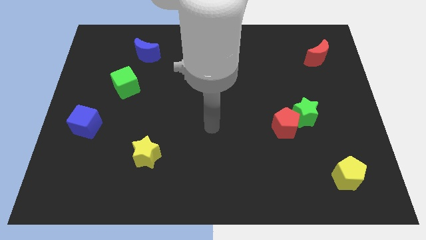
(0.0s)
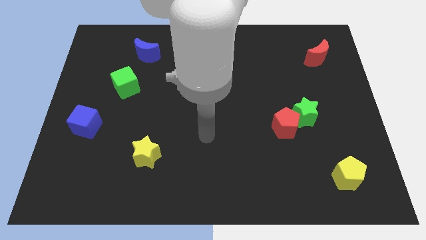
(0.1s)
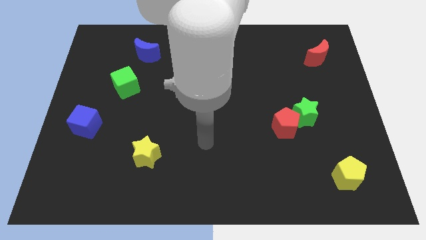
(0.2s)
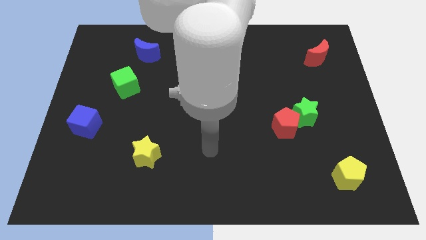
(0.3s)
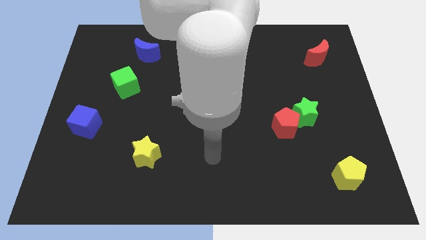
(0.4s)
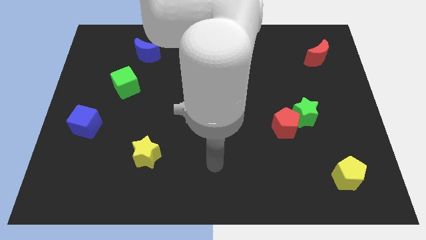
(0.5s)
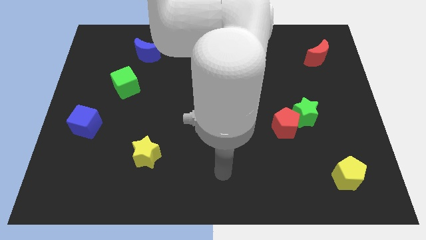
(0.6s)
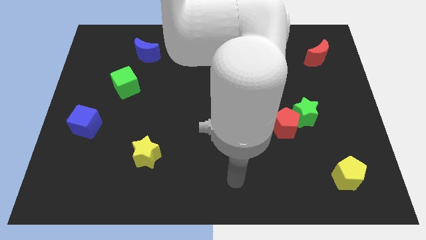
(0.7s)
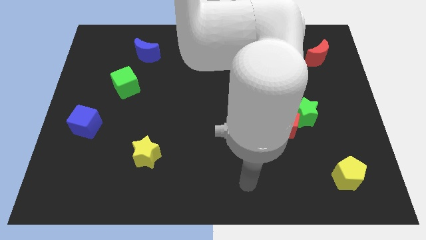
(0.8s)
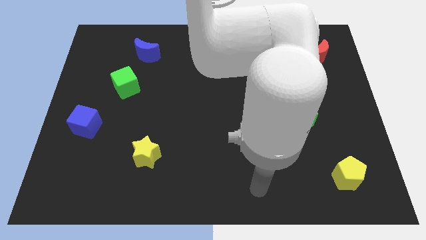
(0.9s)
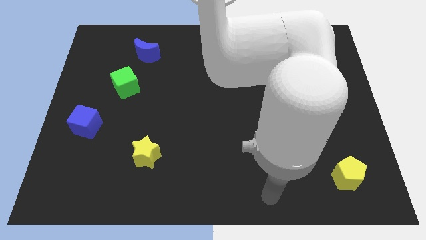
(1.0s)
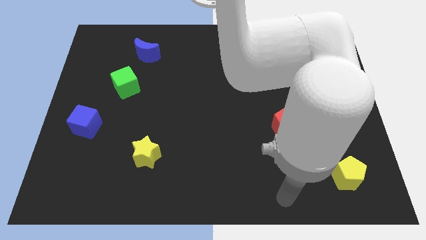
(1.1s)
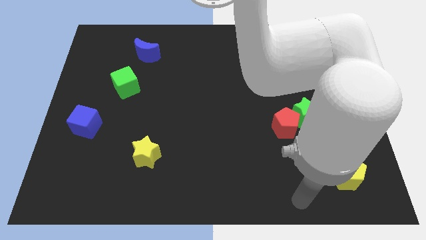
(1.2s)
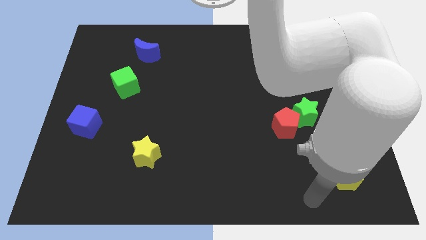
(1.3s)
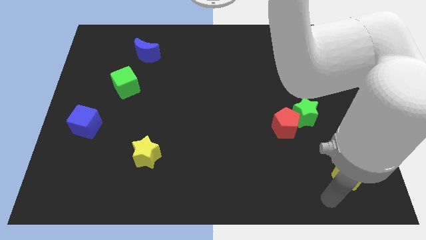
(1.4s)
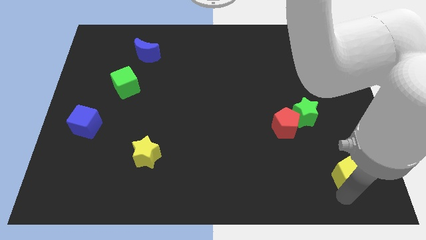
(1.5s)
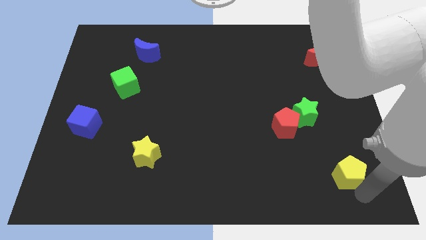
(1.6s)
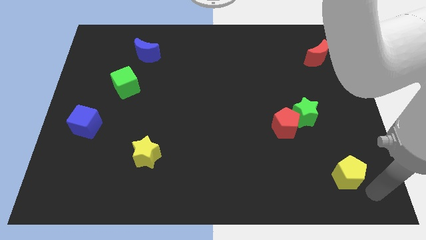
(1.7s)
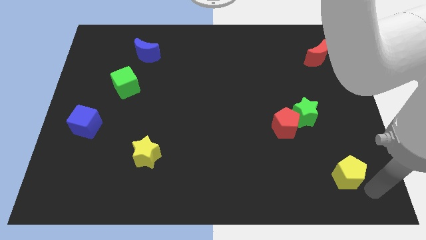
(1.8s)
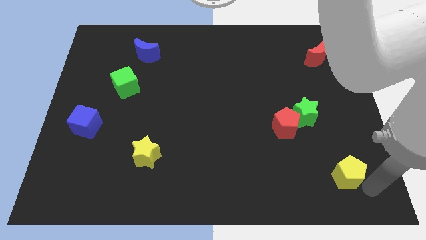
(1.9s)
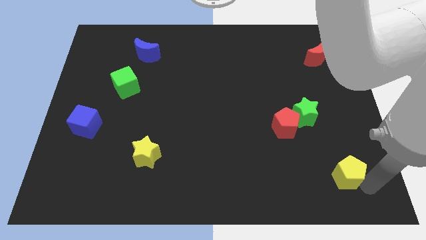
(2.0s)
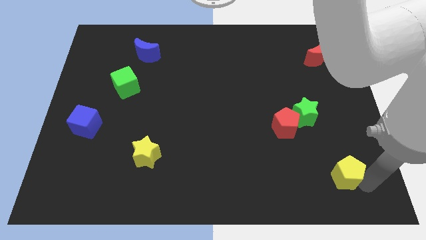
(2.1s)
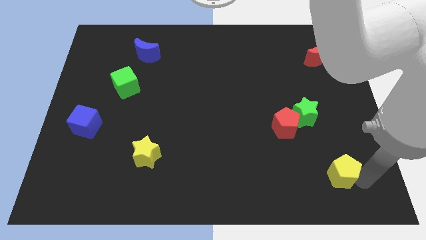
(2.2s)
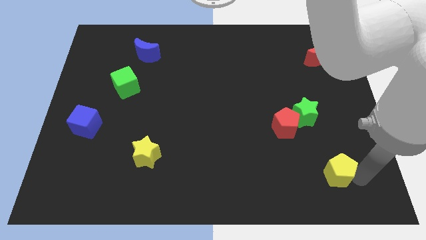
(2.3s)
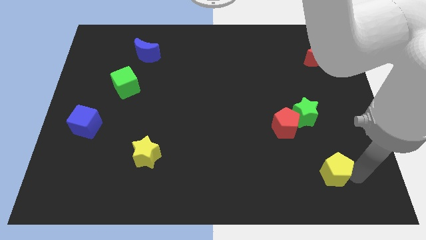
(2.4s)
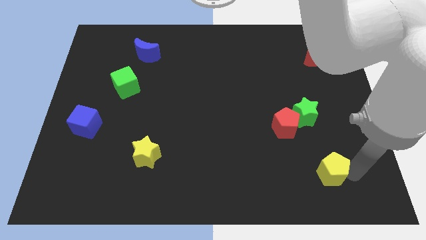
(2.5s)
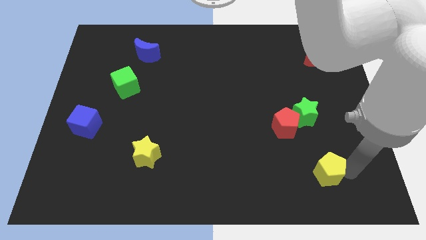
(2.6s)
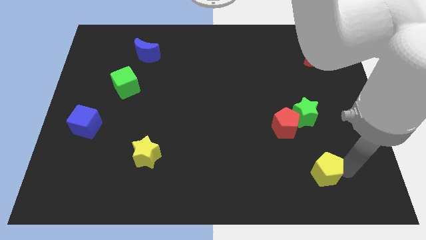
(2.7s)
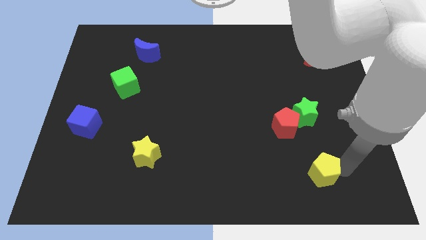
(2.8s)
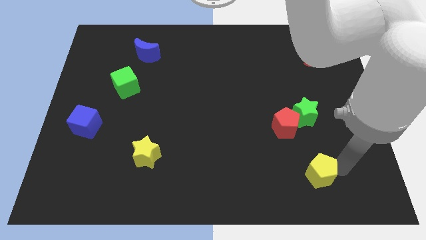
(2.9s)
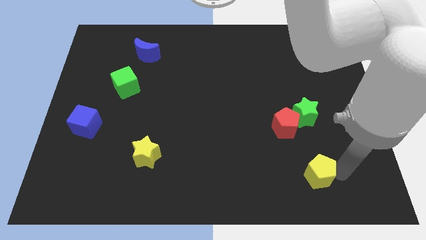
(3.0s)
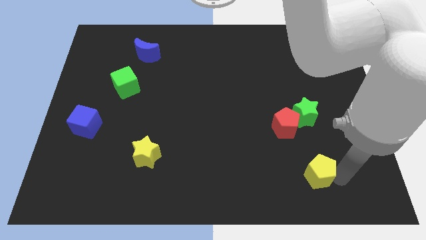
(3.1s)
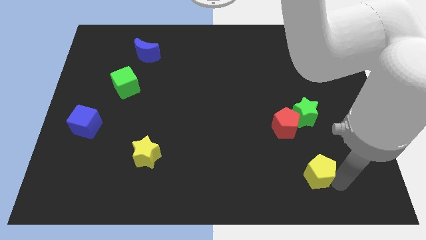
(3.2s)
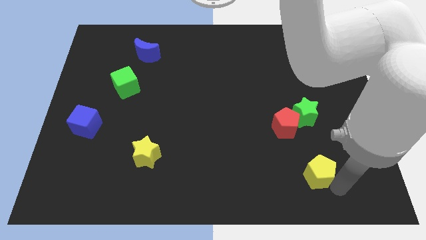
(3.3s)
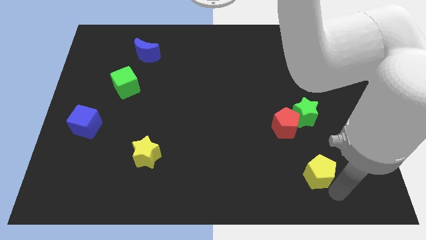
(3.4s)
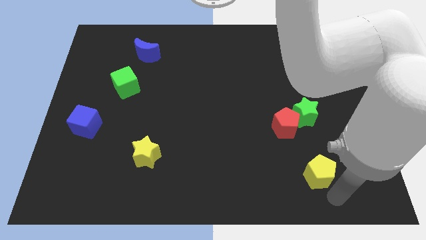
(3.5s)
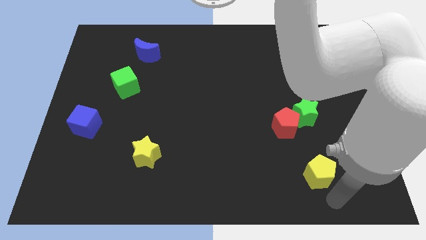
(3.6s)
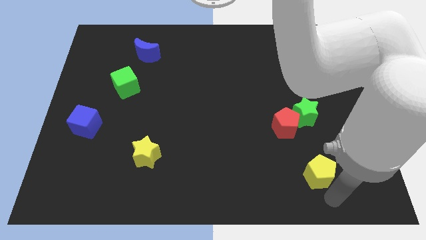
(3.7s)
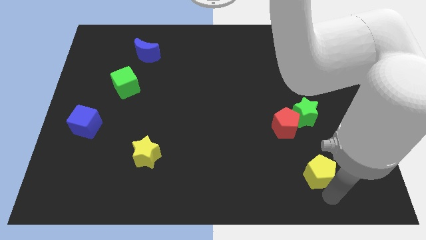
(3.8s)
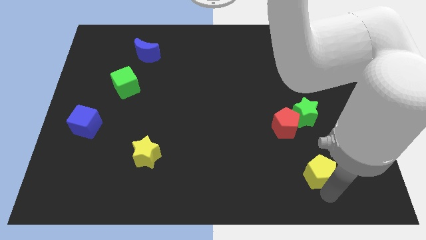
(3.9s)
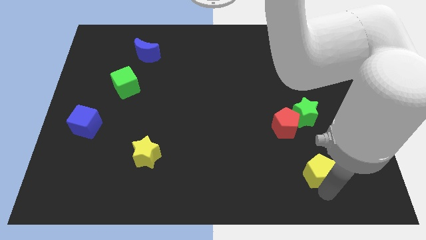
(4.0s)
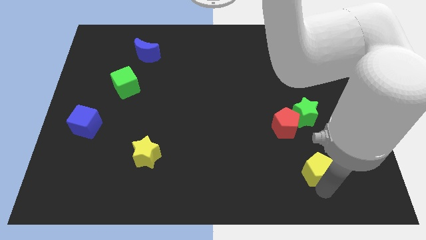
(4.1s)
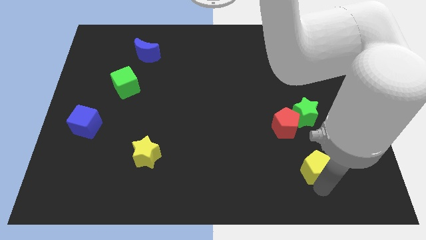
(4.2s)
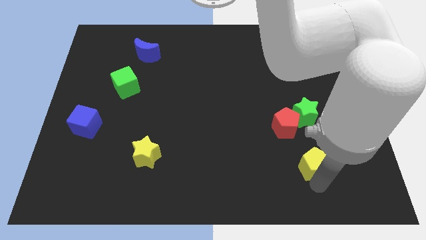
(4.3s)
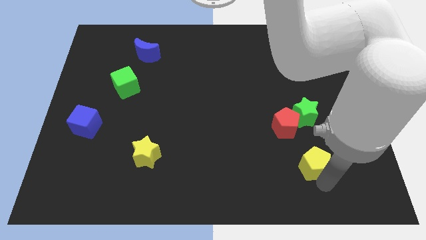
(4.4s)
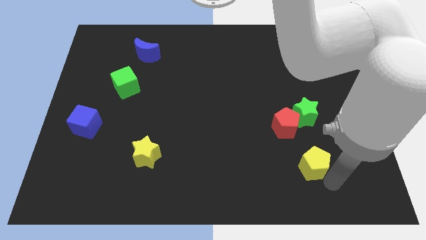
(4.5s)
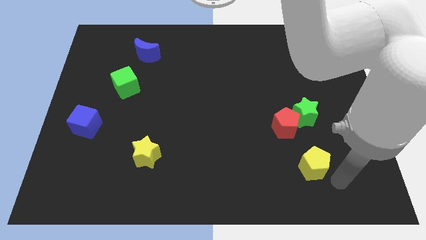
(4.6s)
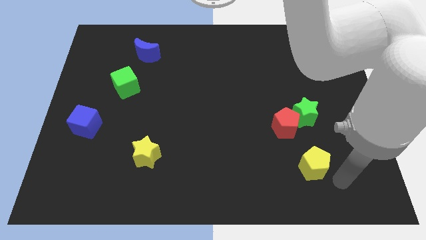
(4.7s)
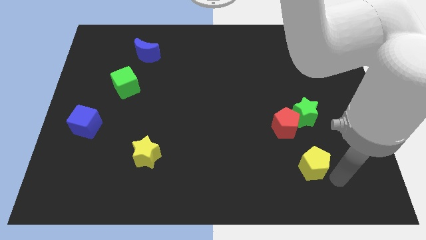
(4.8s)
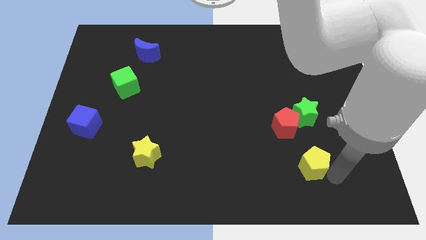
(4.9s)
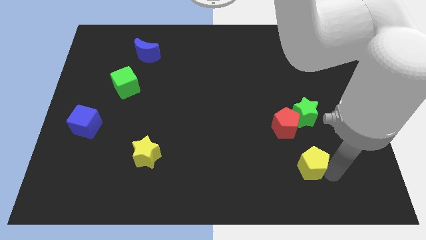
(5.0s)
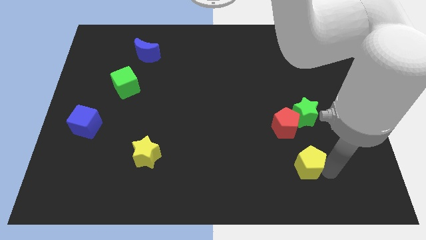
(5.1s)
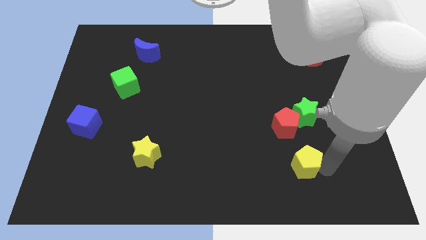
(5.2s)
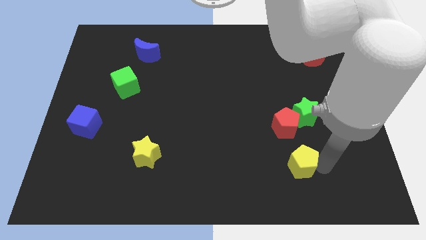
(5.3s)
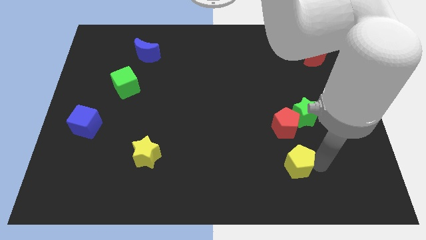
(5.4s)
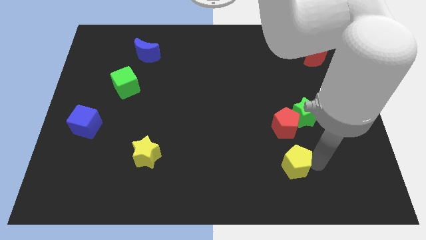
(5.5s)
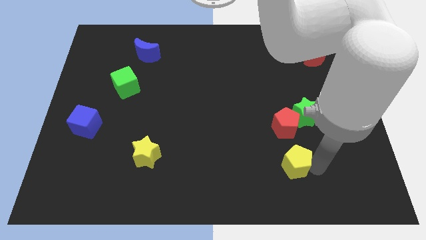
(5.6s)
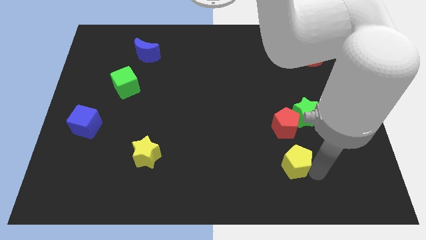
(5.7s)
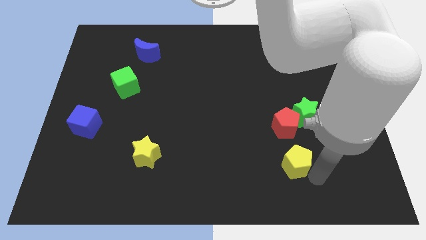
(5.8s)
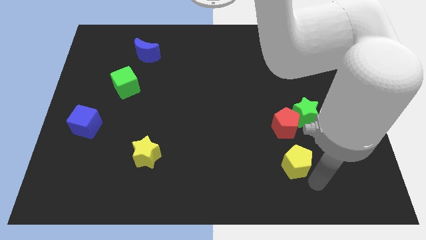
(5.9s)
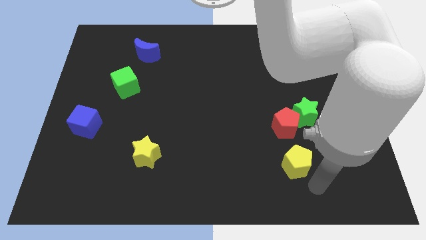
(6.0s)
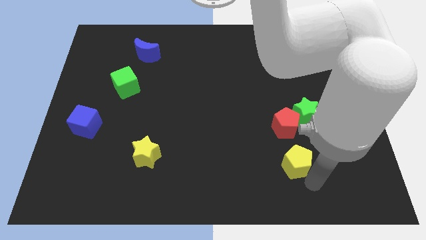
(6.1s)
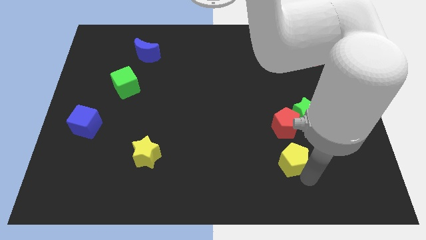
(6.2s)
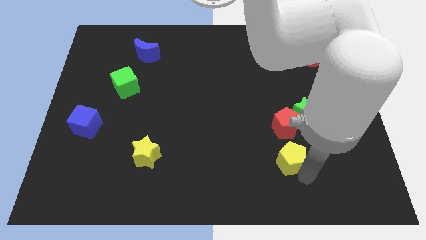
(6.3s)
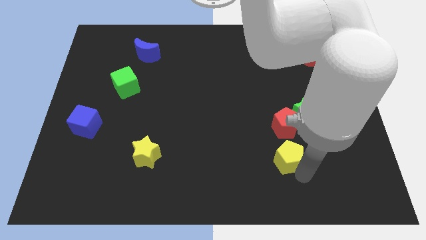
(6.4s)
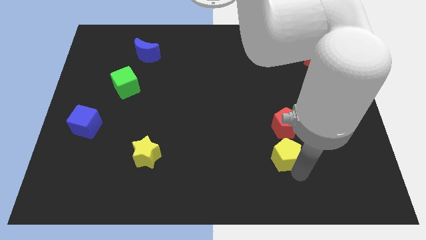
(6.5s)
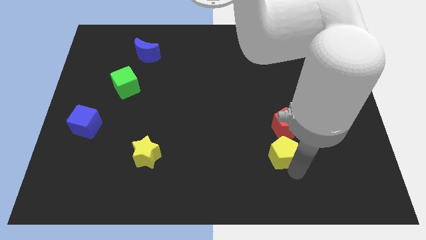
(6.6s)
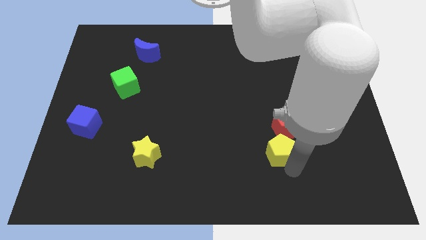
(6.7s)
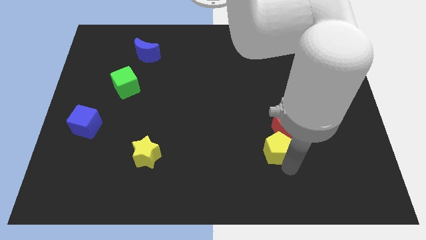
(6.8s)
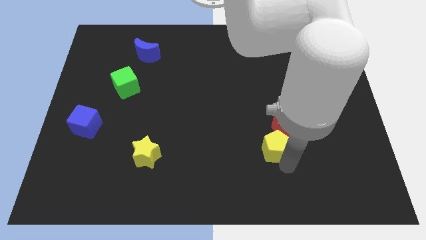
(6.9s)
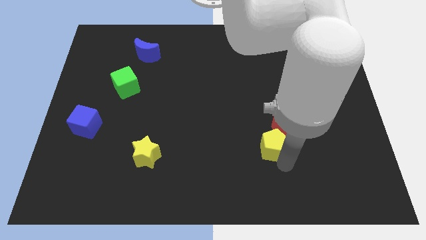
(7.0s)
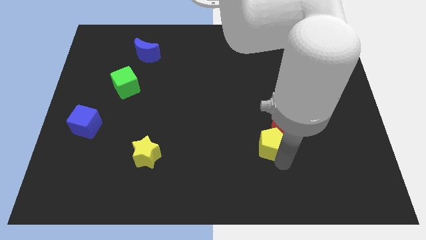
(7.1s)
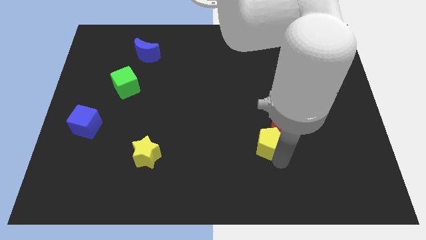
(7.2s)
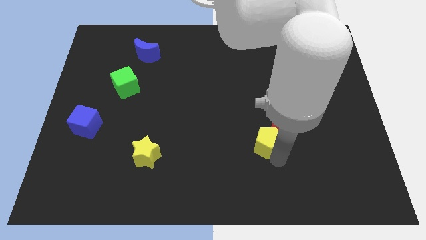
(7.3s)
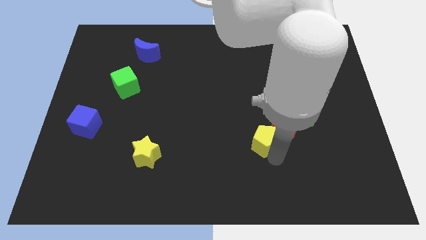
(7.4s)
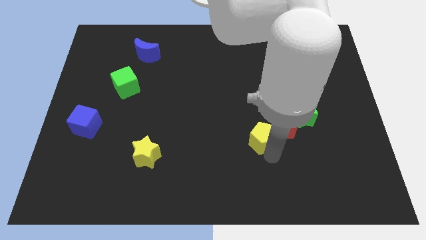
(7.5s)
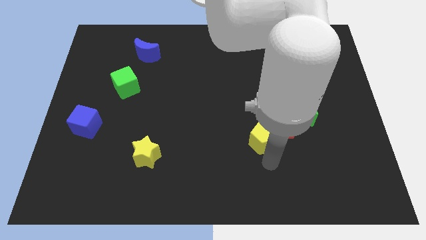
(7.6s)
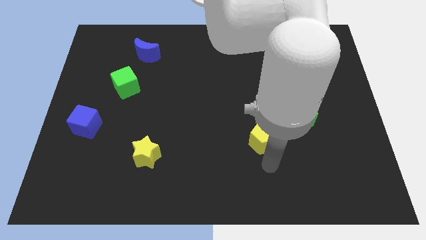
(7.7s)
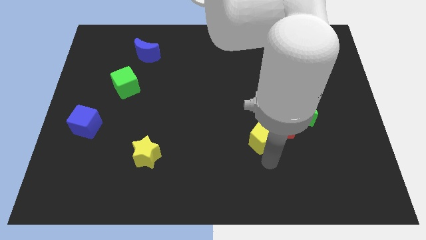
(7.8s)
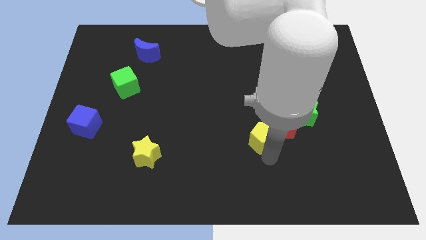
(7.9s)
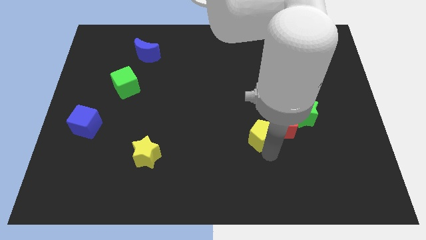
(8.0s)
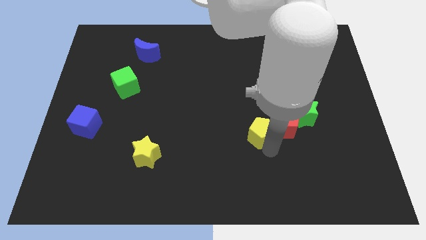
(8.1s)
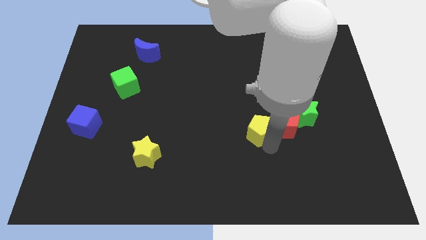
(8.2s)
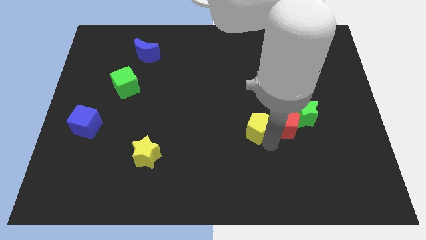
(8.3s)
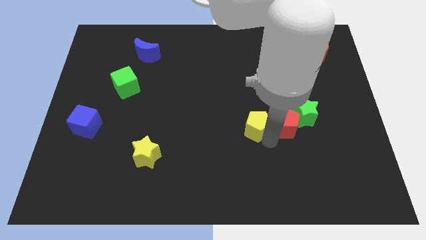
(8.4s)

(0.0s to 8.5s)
move the yellow pentagon up and left diagonally
